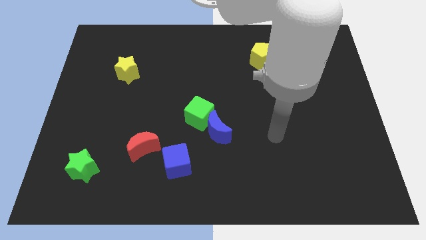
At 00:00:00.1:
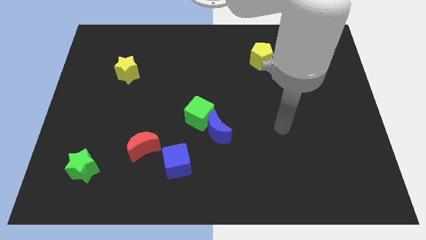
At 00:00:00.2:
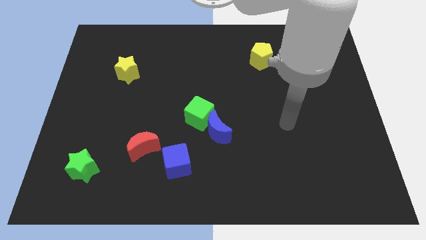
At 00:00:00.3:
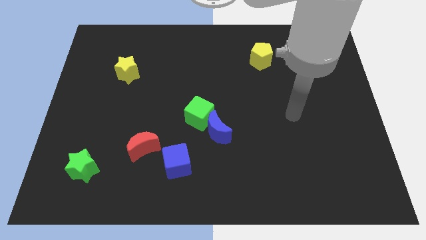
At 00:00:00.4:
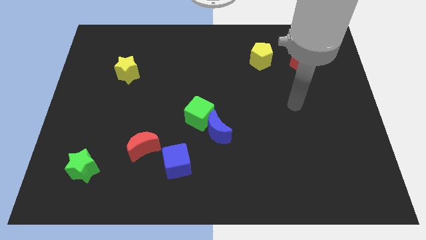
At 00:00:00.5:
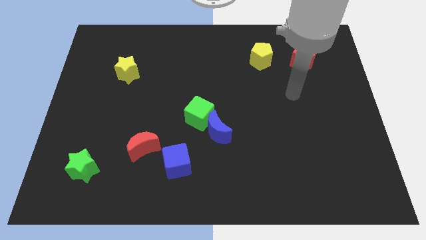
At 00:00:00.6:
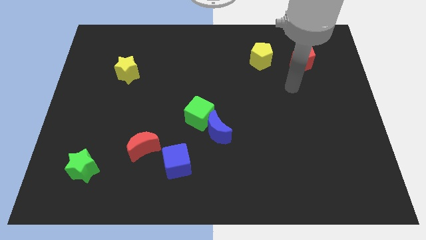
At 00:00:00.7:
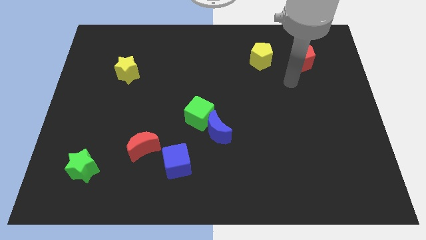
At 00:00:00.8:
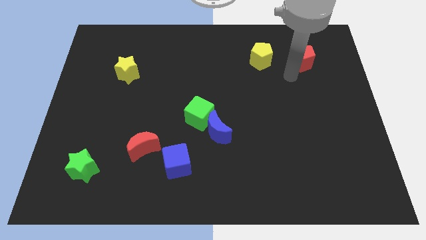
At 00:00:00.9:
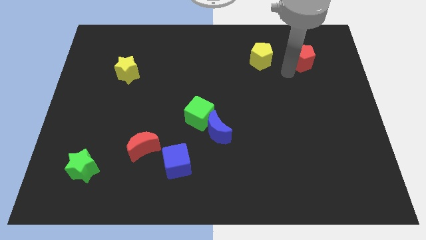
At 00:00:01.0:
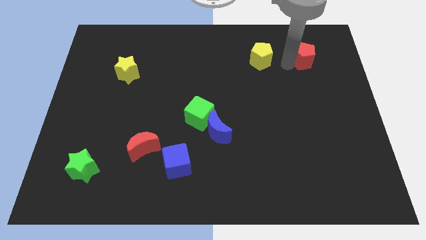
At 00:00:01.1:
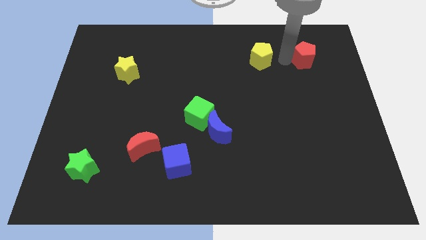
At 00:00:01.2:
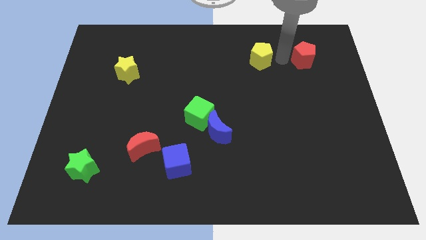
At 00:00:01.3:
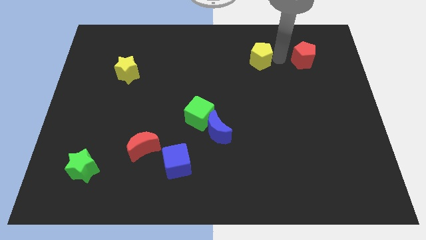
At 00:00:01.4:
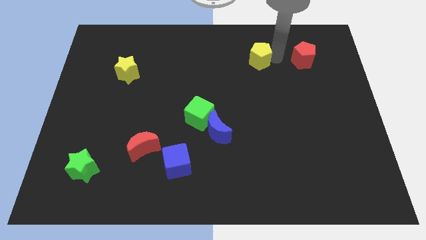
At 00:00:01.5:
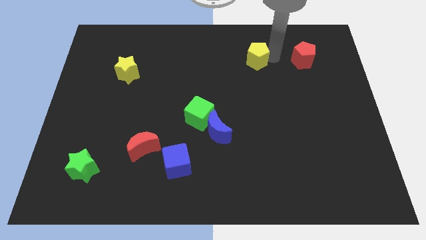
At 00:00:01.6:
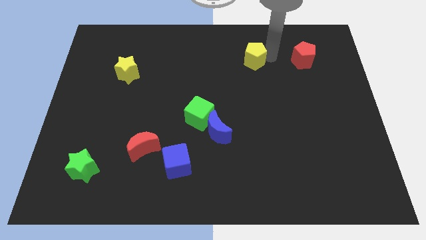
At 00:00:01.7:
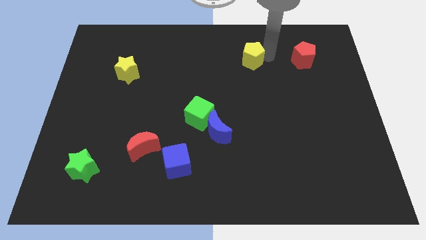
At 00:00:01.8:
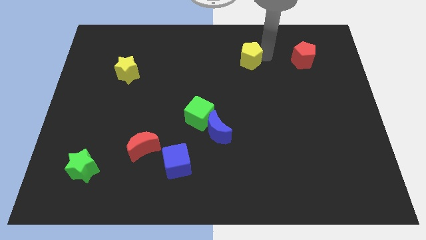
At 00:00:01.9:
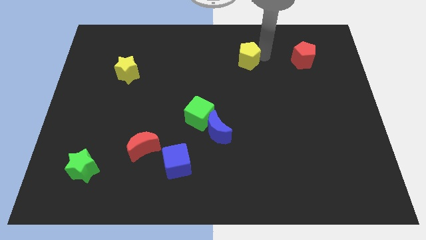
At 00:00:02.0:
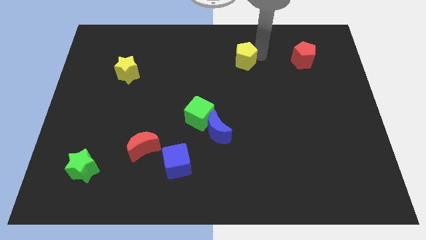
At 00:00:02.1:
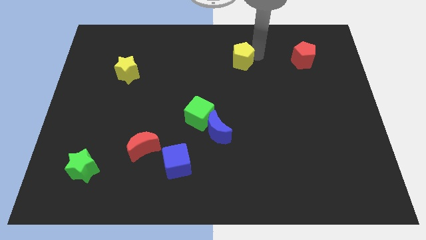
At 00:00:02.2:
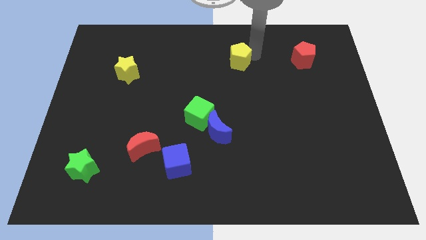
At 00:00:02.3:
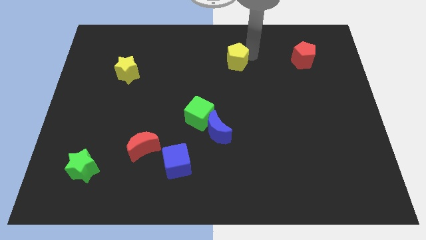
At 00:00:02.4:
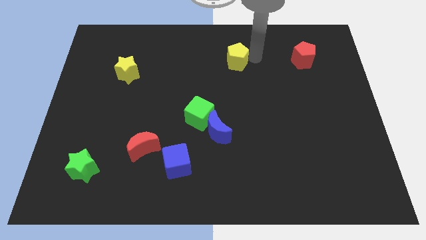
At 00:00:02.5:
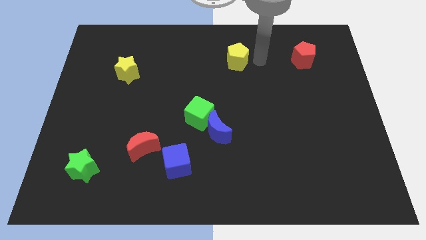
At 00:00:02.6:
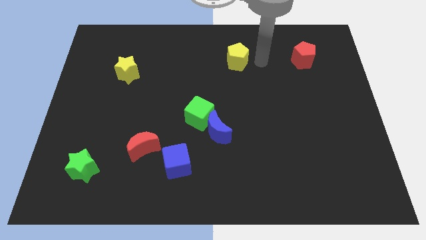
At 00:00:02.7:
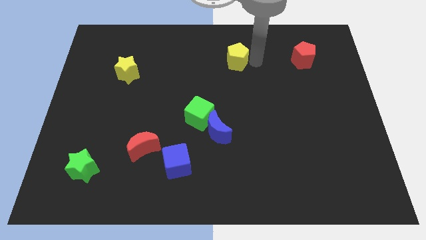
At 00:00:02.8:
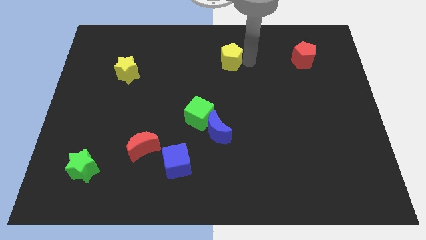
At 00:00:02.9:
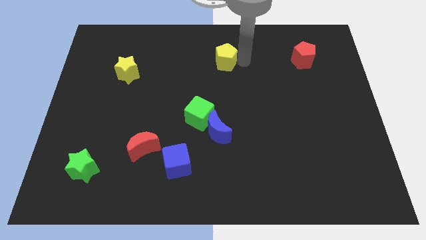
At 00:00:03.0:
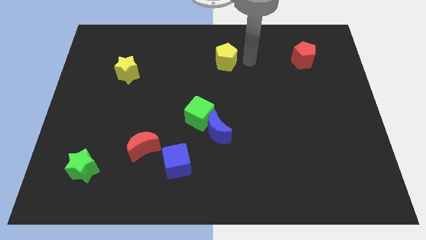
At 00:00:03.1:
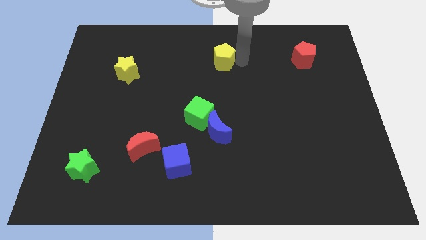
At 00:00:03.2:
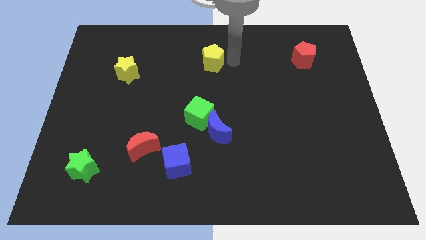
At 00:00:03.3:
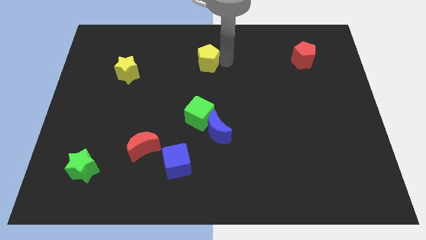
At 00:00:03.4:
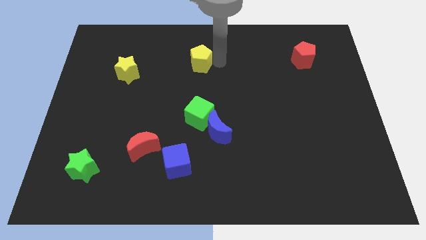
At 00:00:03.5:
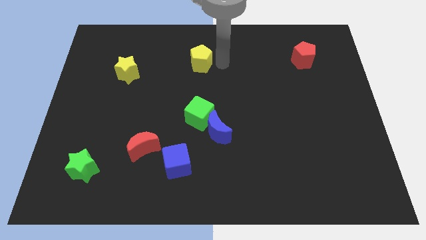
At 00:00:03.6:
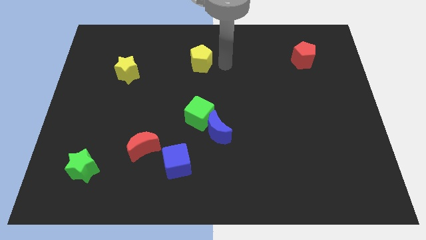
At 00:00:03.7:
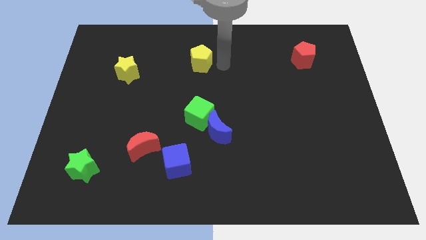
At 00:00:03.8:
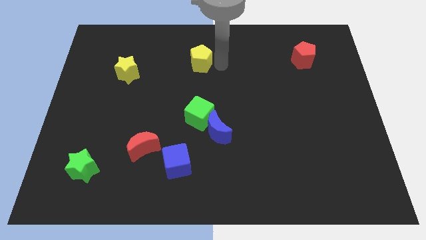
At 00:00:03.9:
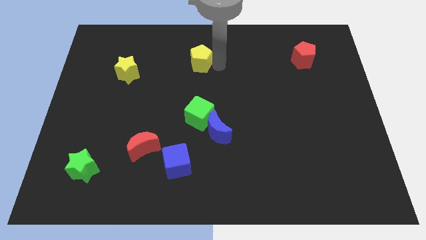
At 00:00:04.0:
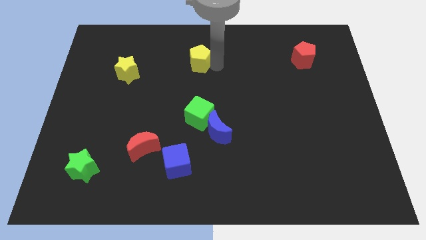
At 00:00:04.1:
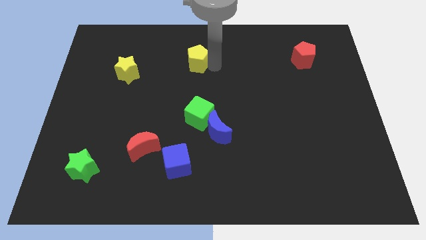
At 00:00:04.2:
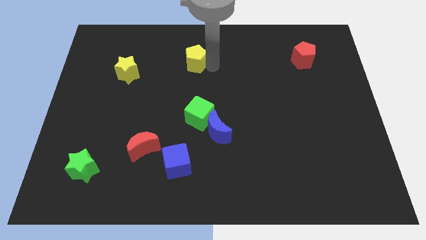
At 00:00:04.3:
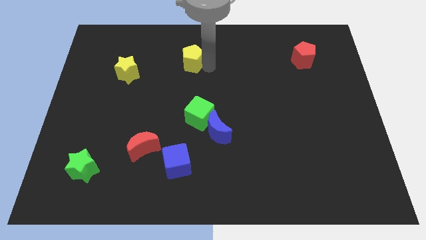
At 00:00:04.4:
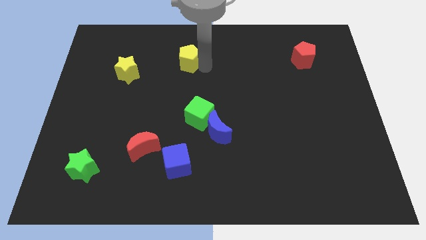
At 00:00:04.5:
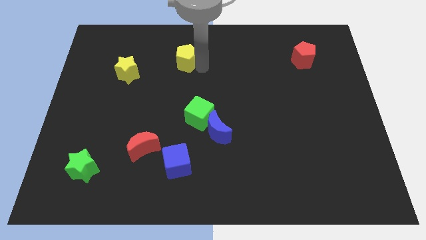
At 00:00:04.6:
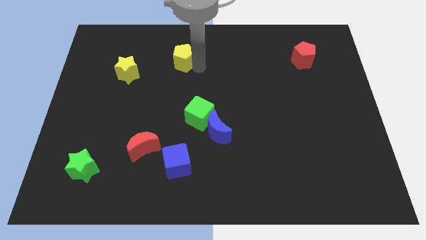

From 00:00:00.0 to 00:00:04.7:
slide the yellow pentagon left

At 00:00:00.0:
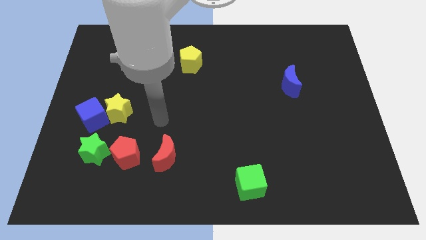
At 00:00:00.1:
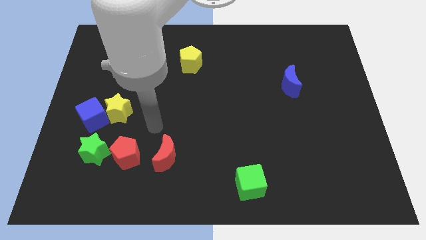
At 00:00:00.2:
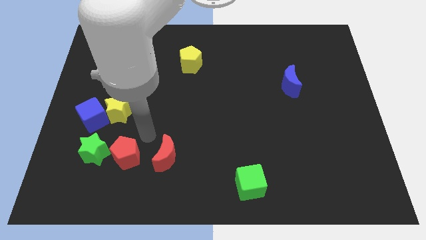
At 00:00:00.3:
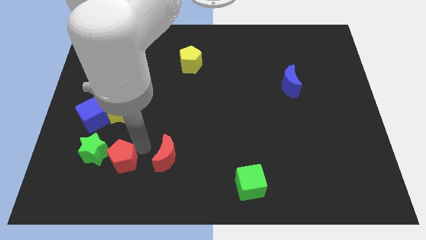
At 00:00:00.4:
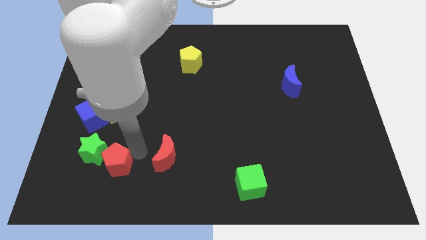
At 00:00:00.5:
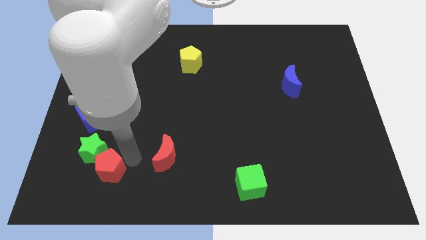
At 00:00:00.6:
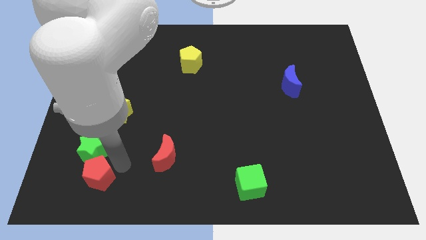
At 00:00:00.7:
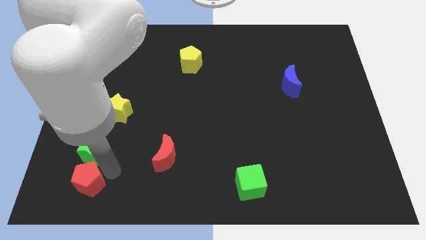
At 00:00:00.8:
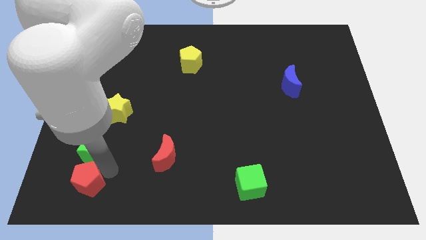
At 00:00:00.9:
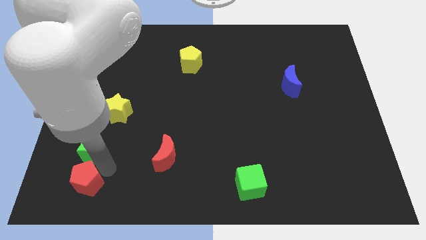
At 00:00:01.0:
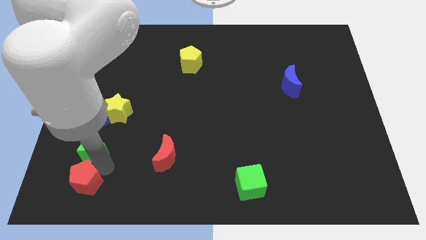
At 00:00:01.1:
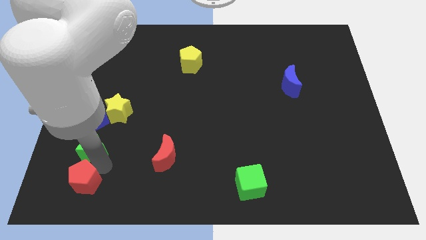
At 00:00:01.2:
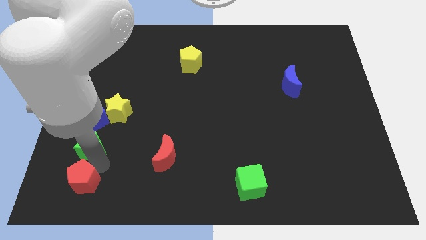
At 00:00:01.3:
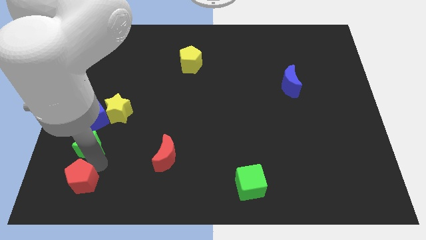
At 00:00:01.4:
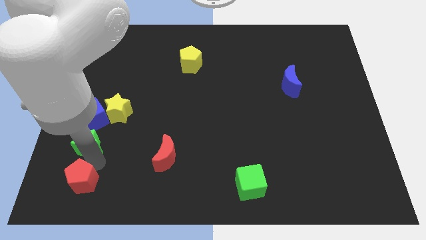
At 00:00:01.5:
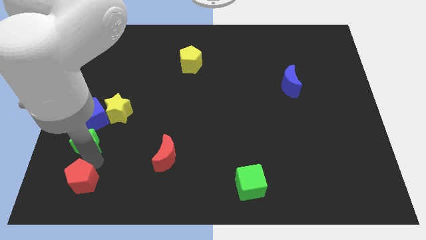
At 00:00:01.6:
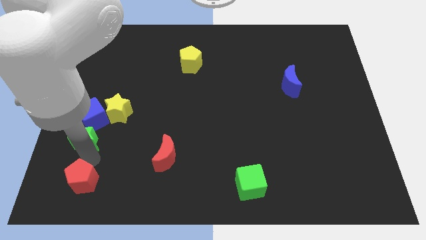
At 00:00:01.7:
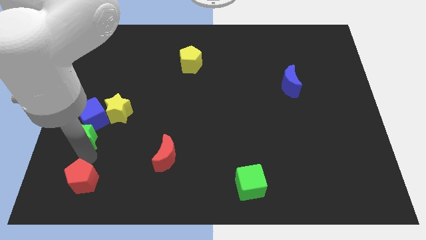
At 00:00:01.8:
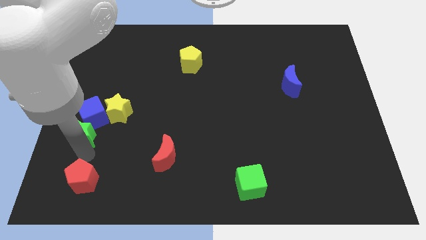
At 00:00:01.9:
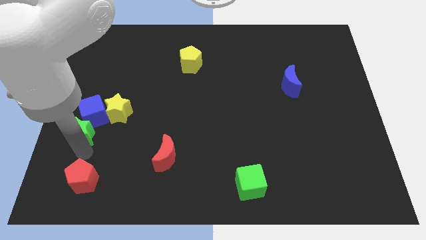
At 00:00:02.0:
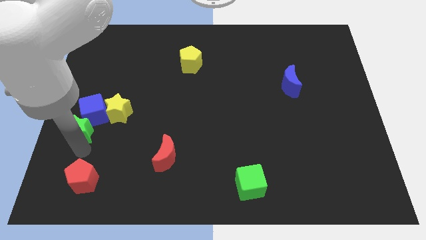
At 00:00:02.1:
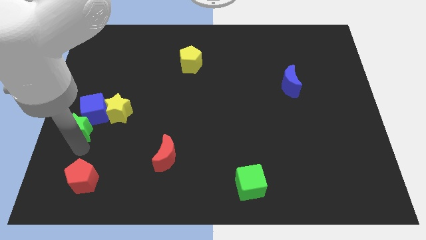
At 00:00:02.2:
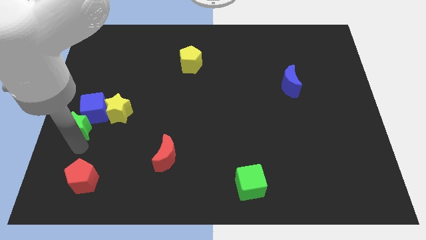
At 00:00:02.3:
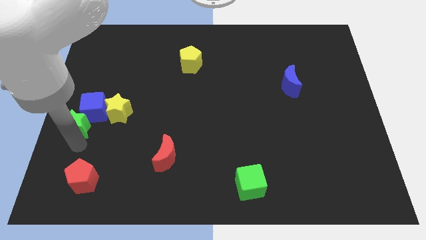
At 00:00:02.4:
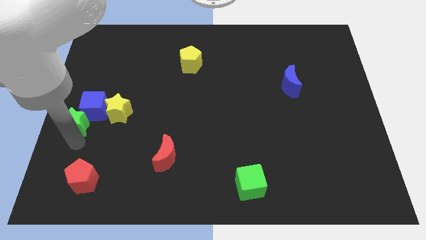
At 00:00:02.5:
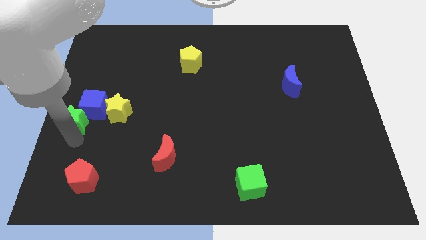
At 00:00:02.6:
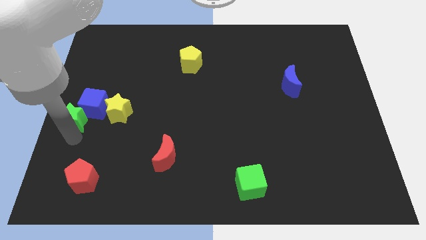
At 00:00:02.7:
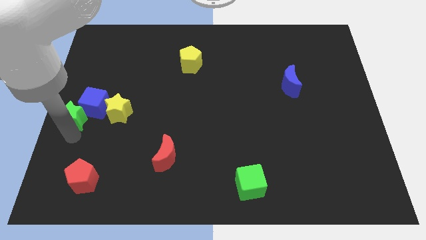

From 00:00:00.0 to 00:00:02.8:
move the green star a bit up

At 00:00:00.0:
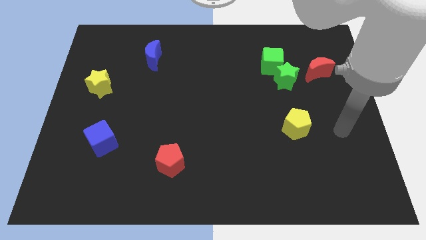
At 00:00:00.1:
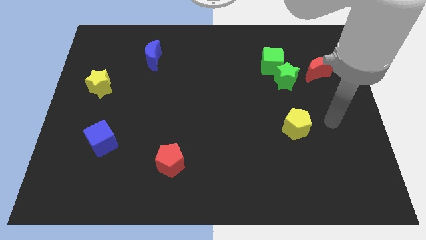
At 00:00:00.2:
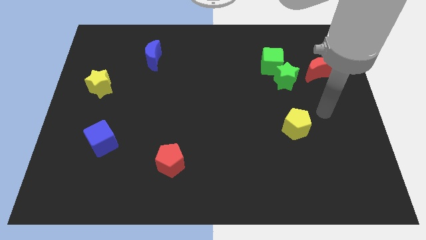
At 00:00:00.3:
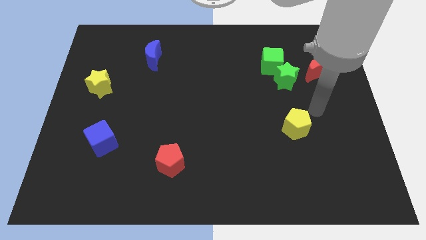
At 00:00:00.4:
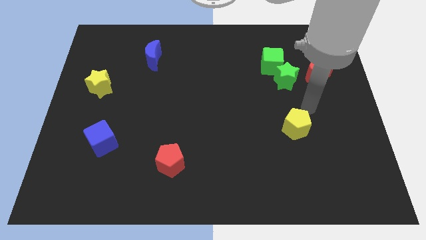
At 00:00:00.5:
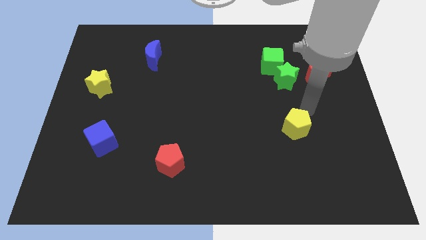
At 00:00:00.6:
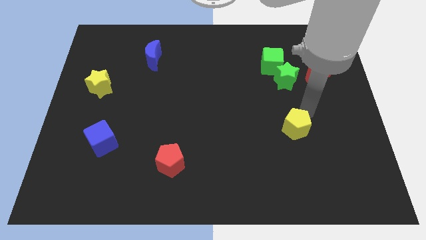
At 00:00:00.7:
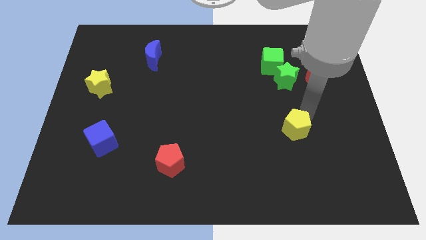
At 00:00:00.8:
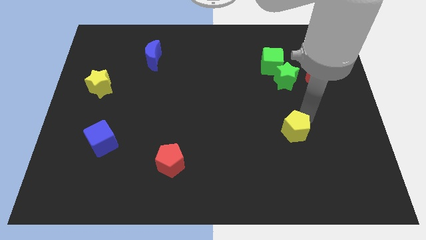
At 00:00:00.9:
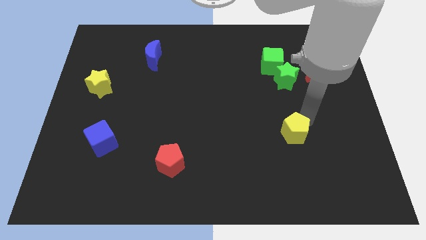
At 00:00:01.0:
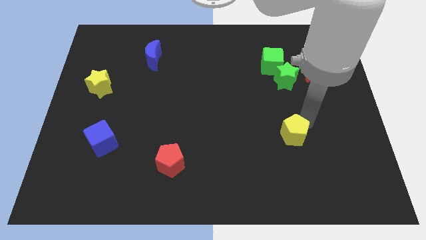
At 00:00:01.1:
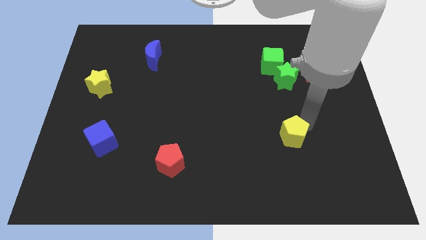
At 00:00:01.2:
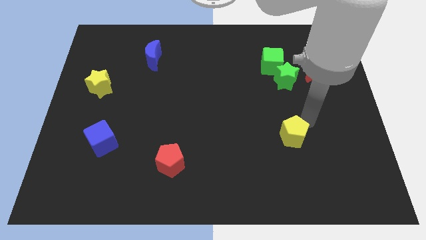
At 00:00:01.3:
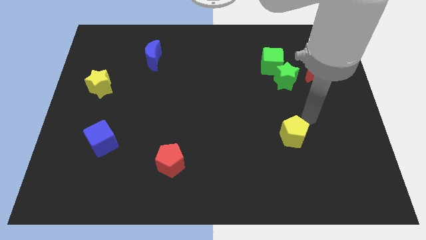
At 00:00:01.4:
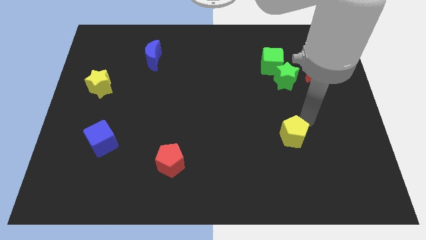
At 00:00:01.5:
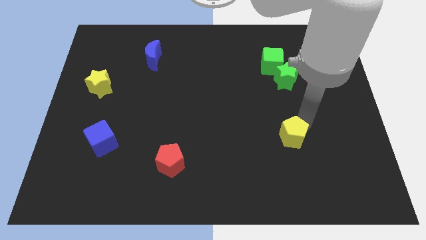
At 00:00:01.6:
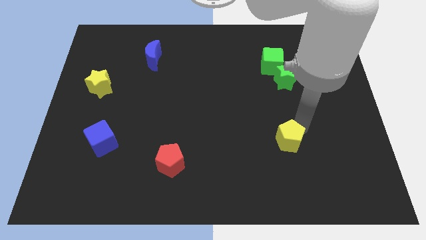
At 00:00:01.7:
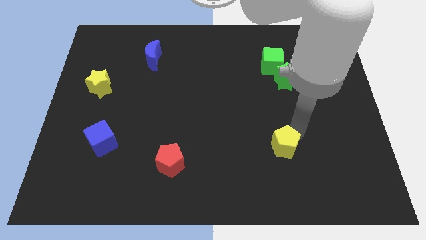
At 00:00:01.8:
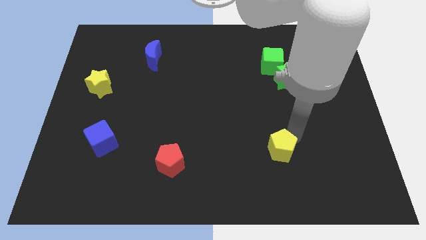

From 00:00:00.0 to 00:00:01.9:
push the yellow pentagon diagonally down and left a little bit
